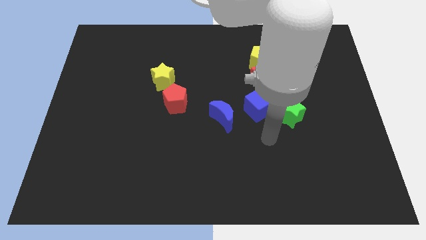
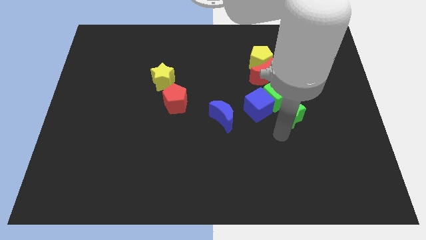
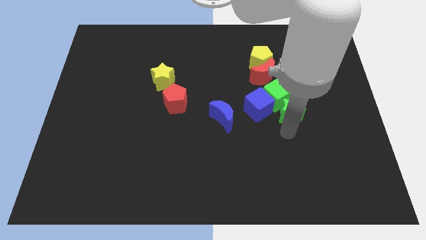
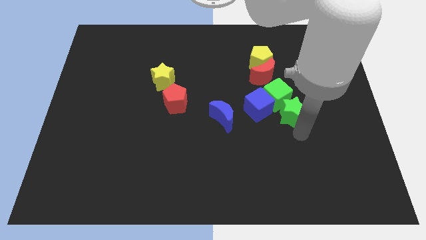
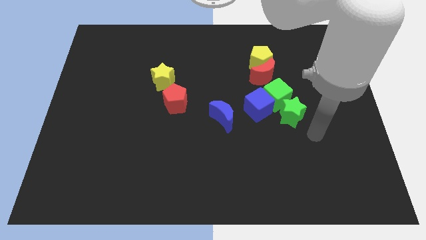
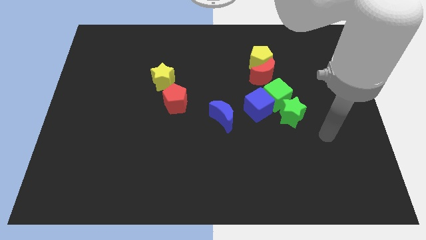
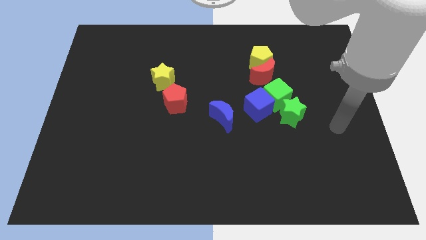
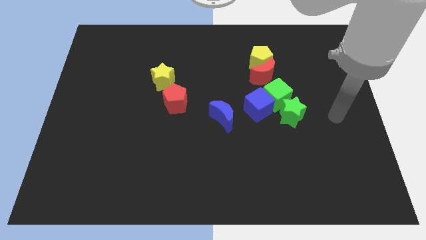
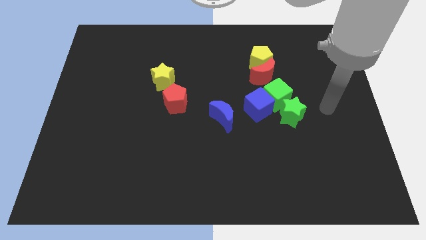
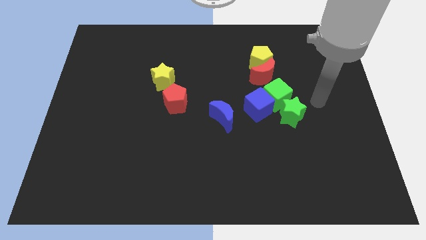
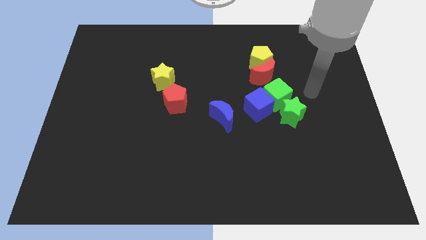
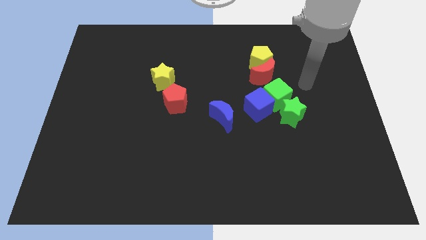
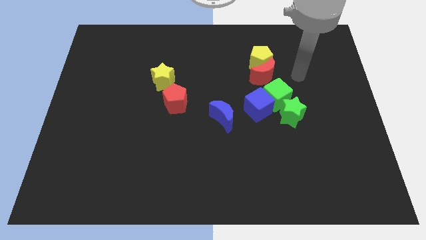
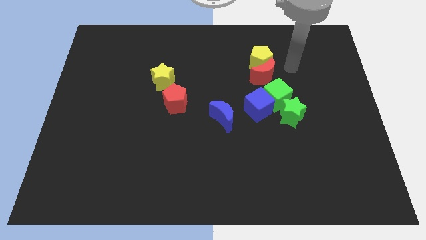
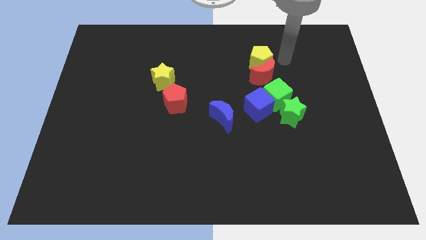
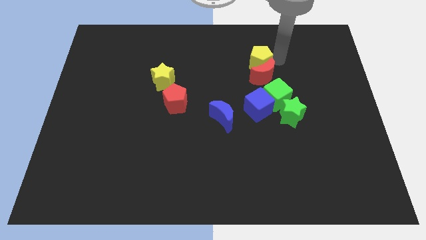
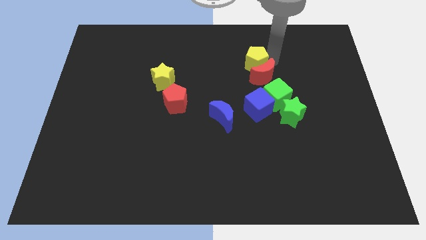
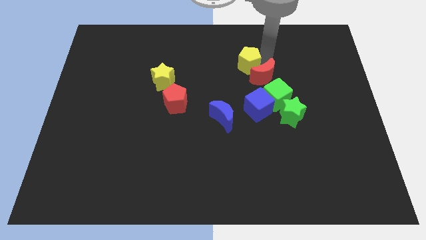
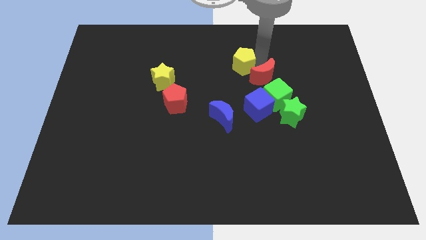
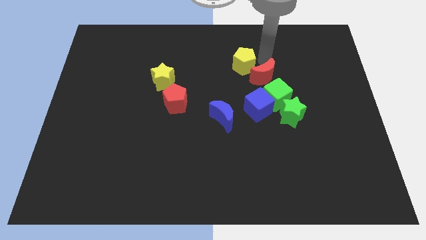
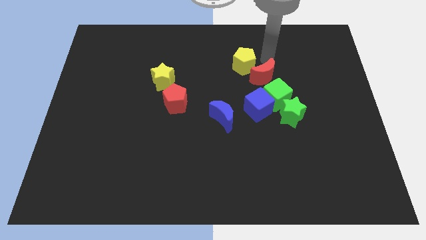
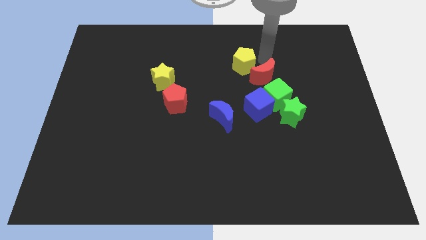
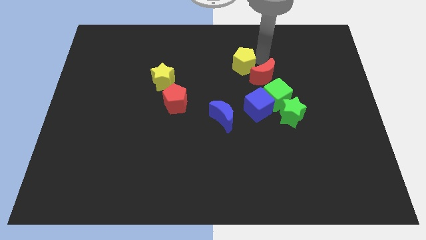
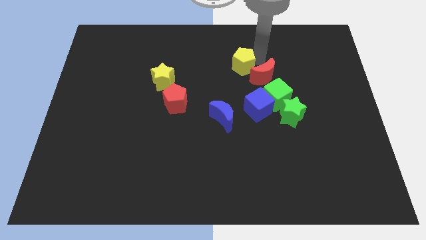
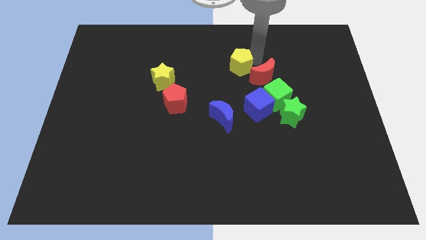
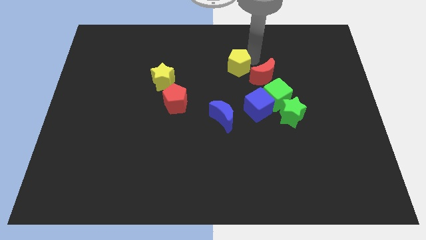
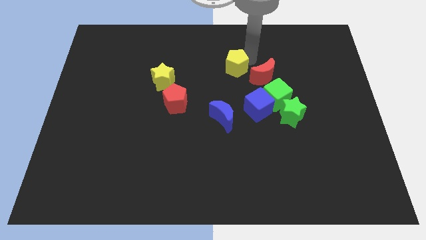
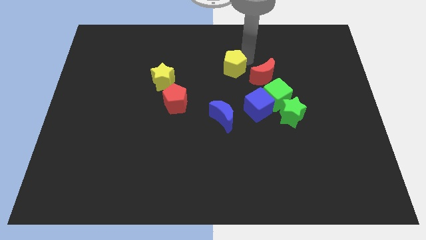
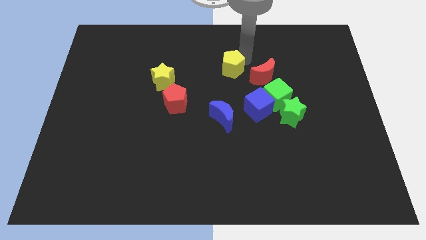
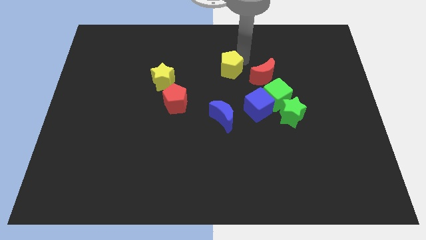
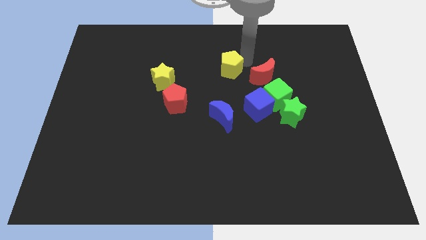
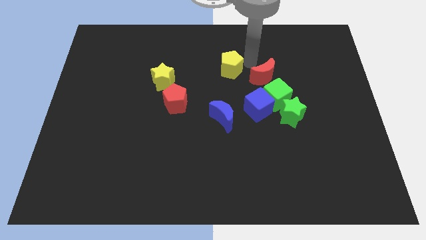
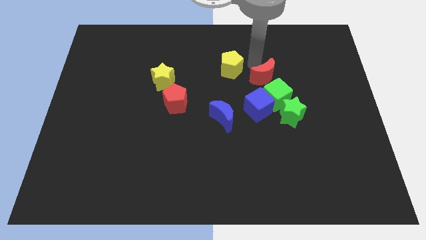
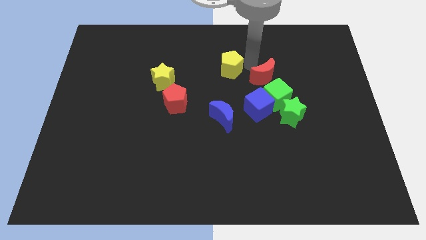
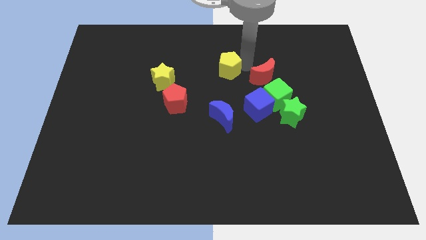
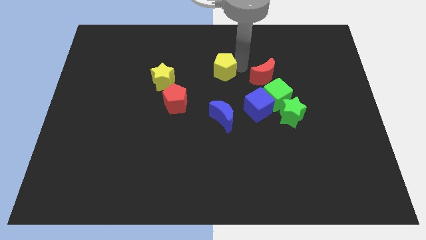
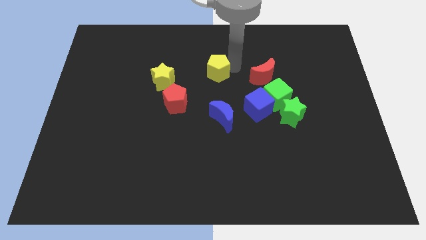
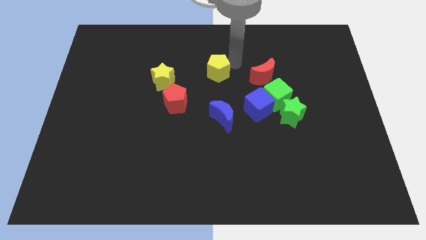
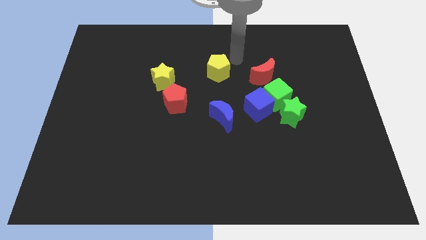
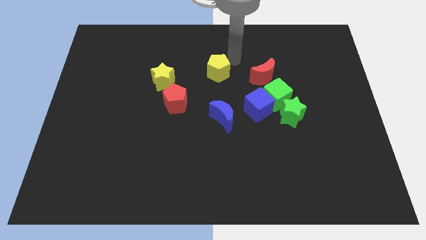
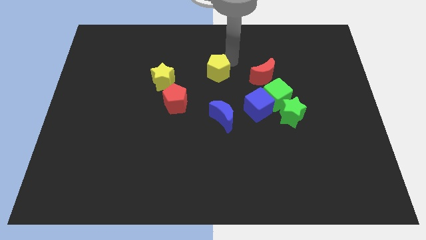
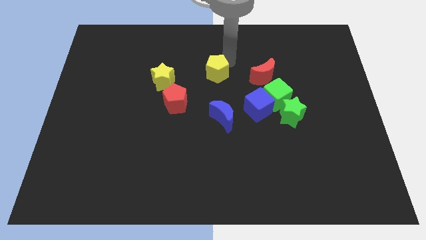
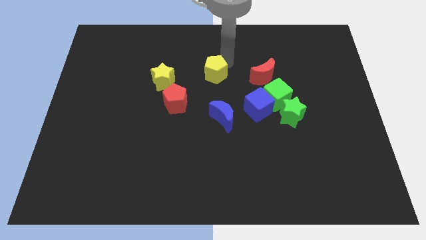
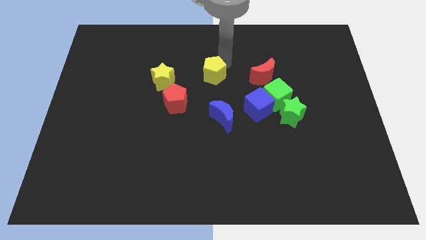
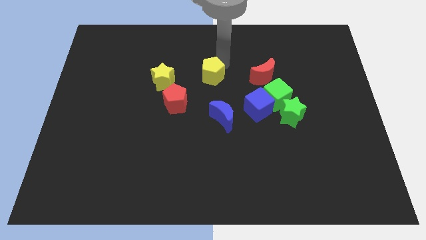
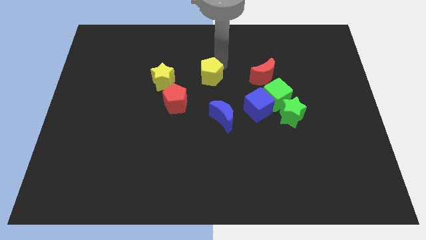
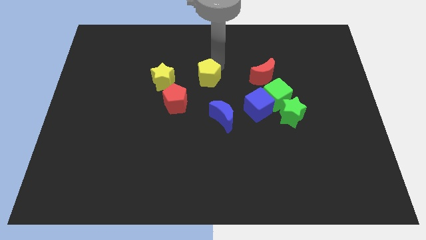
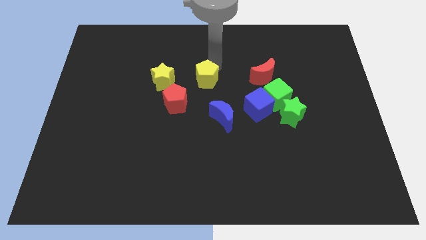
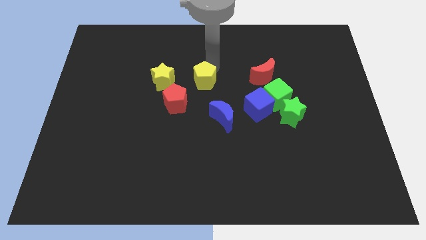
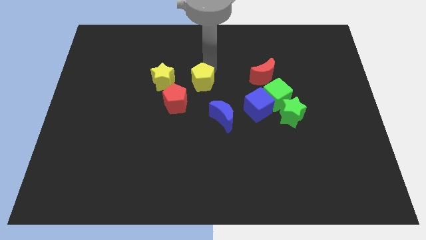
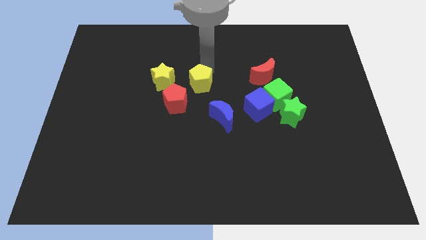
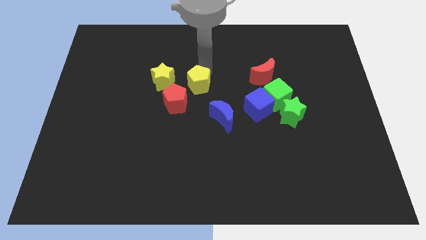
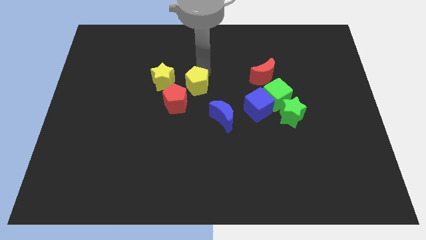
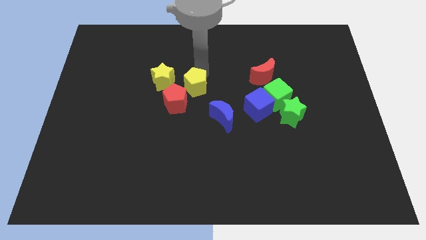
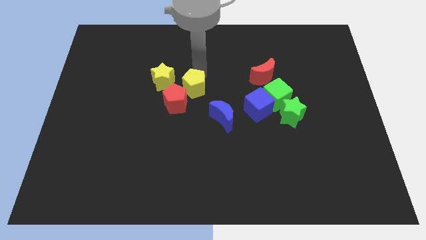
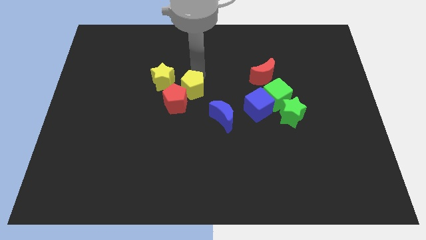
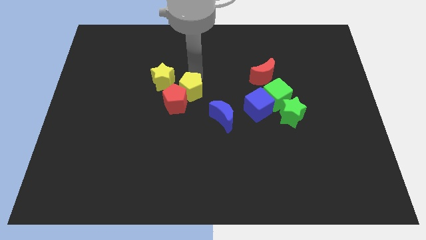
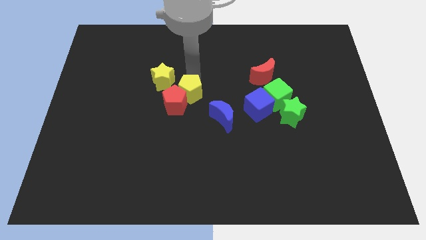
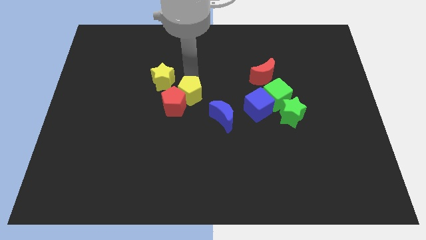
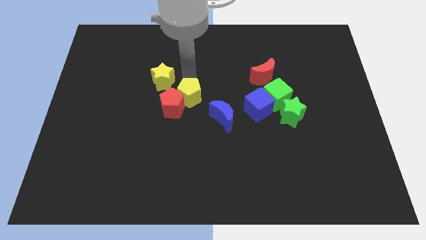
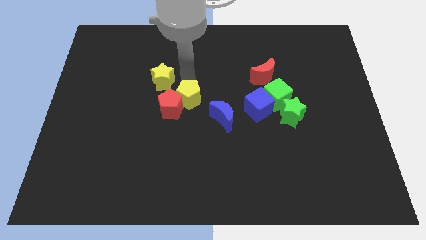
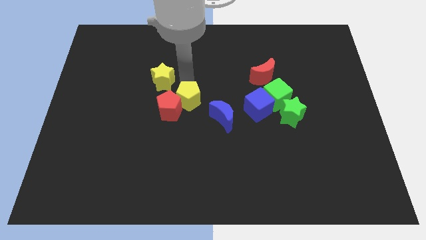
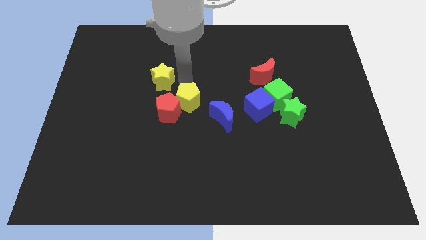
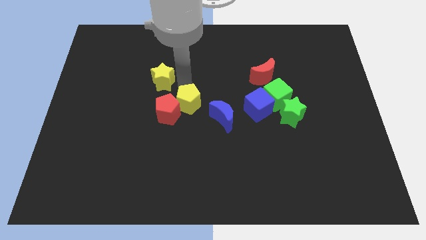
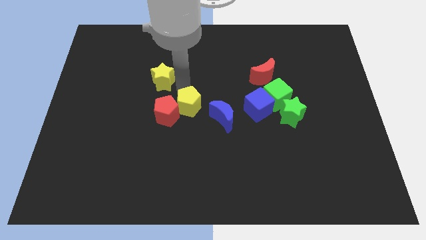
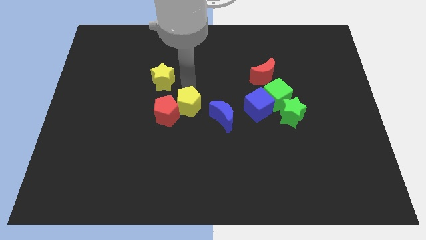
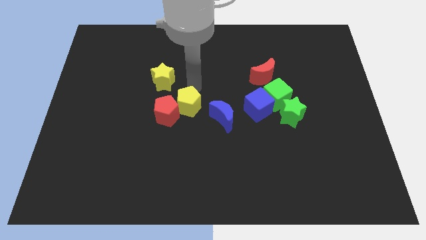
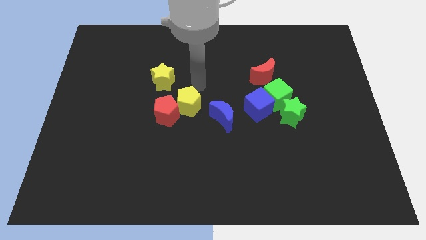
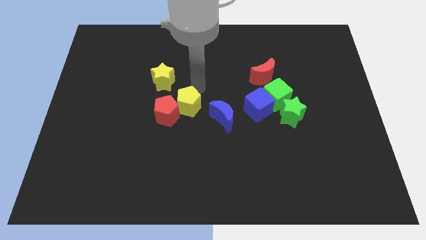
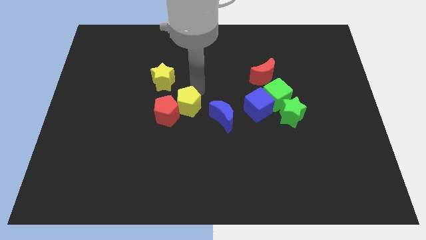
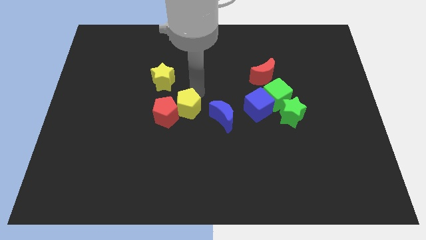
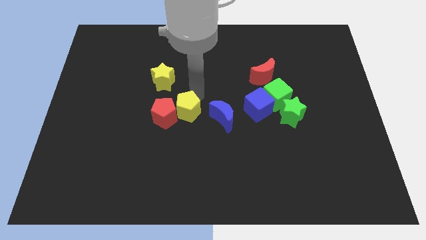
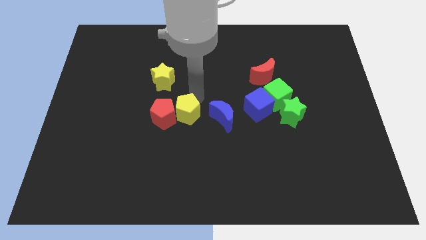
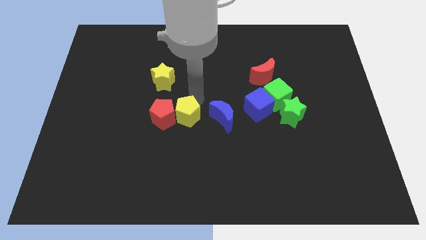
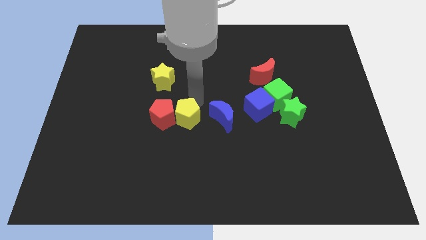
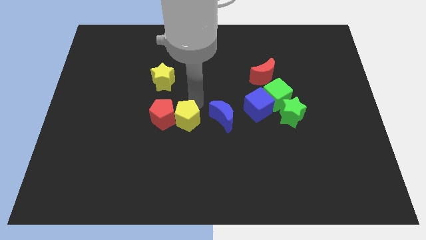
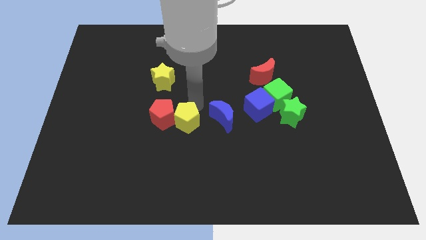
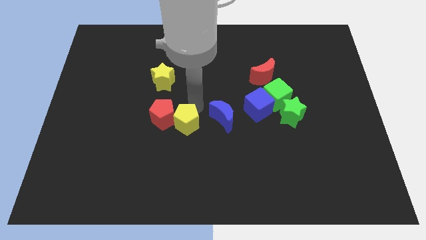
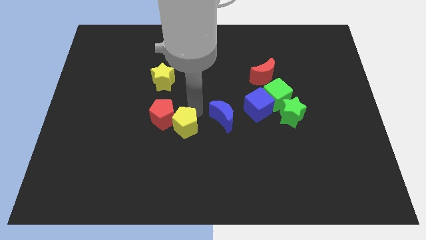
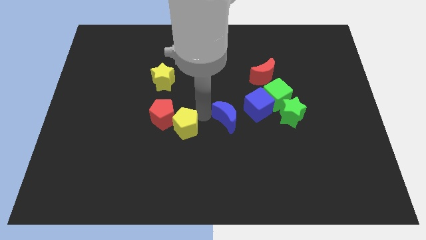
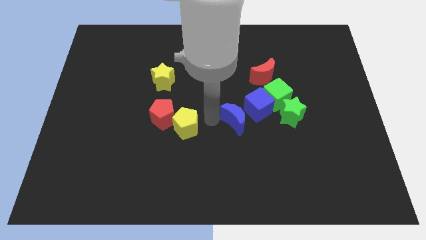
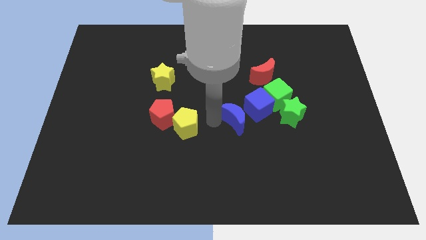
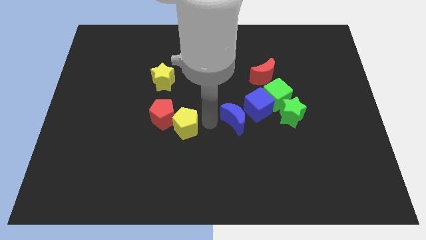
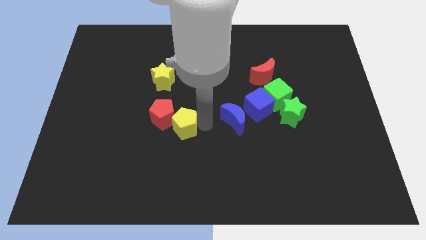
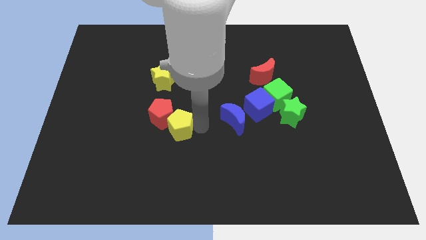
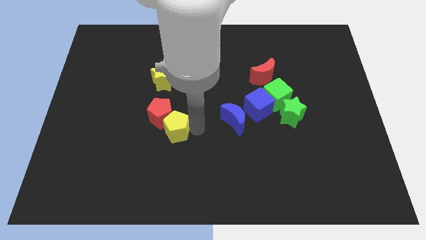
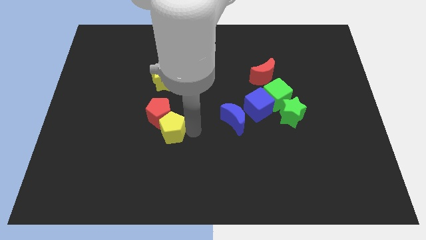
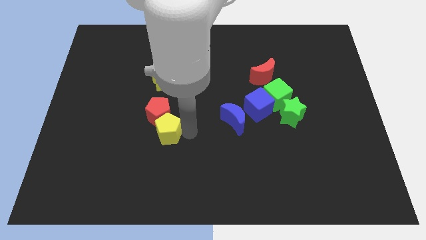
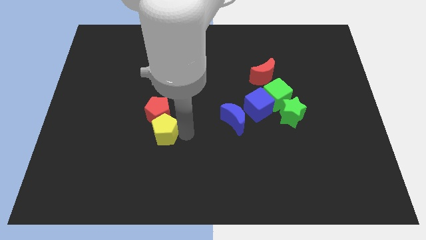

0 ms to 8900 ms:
push the yellow pentagon diagonally down and to the left of the red pentagon
